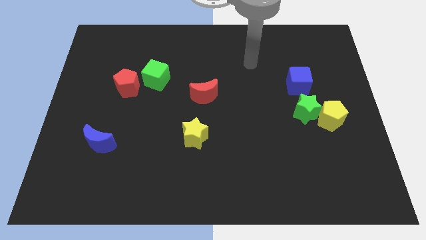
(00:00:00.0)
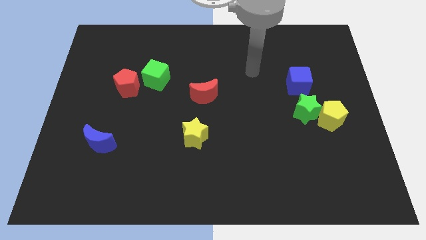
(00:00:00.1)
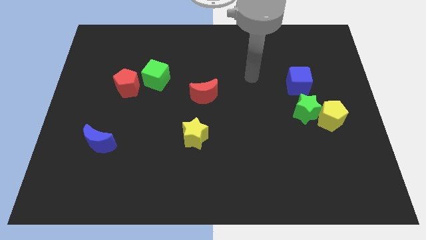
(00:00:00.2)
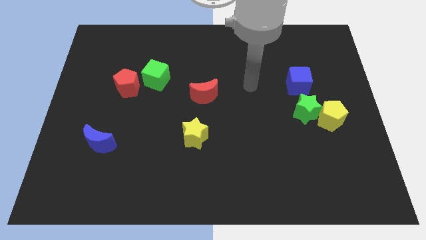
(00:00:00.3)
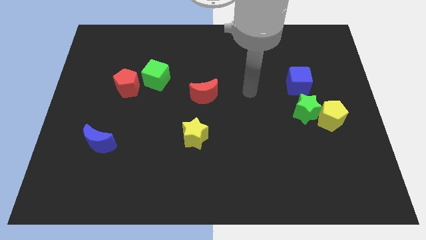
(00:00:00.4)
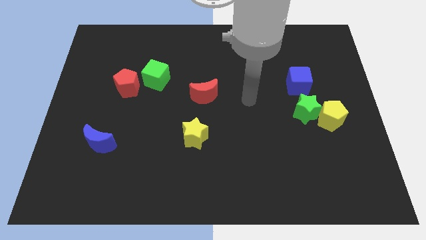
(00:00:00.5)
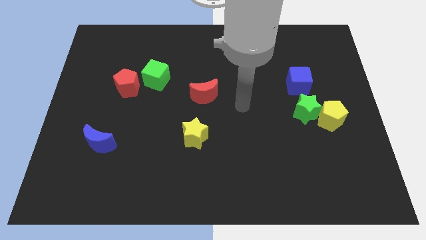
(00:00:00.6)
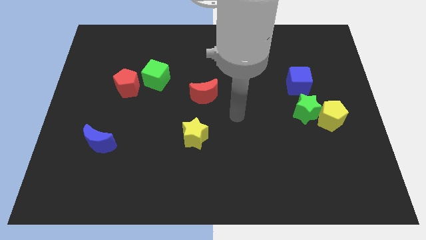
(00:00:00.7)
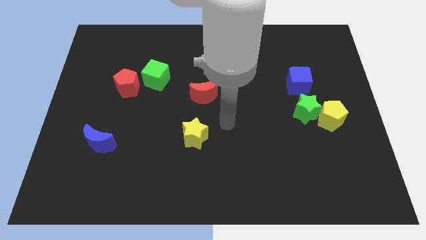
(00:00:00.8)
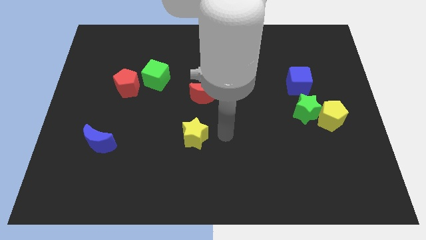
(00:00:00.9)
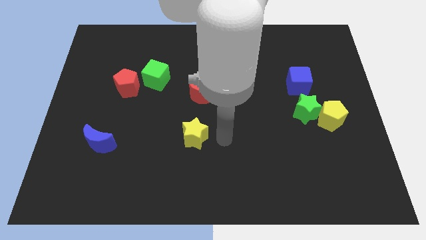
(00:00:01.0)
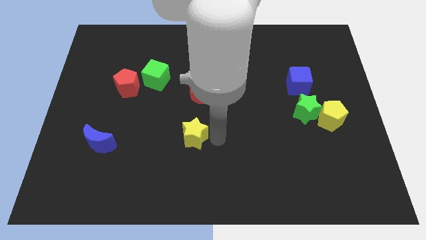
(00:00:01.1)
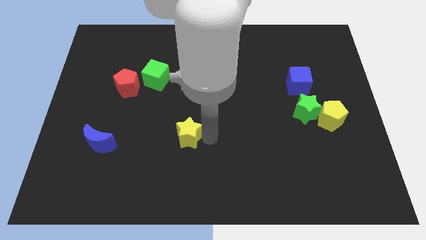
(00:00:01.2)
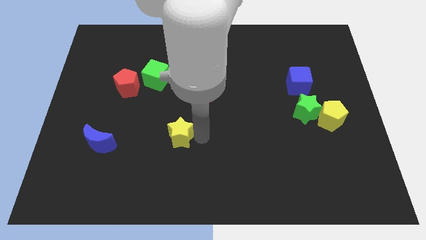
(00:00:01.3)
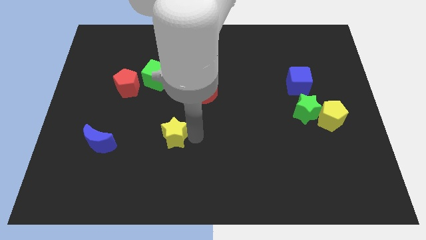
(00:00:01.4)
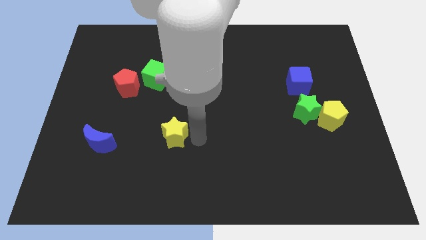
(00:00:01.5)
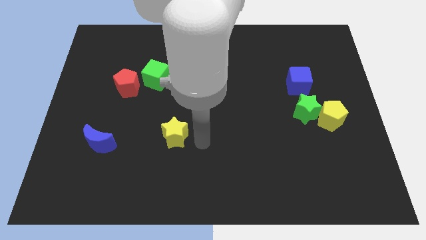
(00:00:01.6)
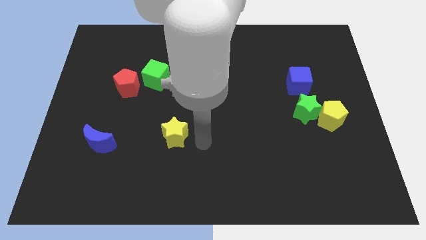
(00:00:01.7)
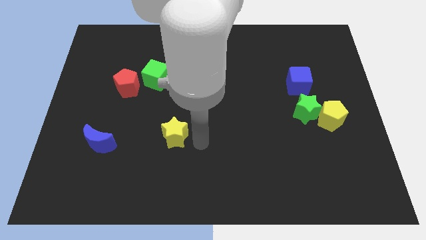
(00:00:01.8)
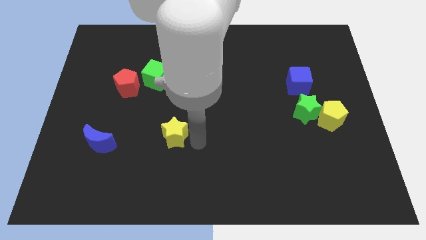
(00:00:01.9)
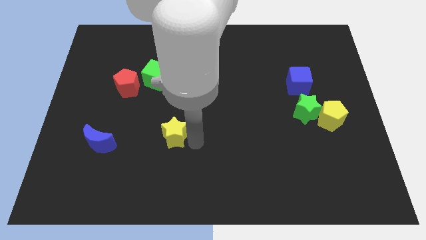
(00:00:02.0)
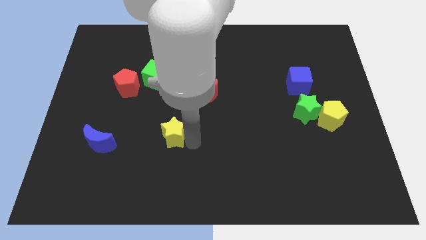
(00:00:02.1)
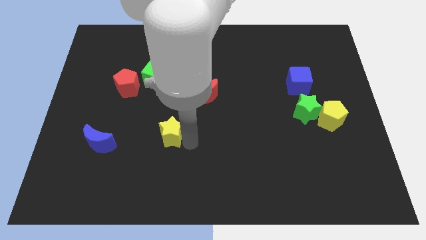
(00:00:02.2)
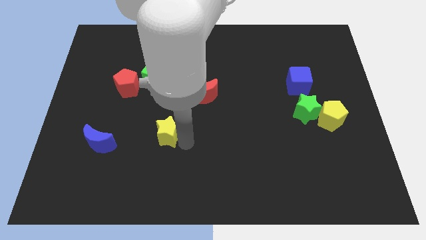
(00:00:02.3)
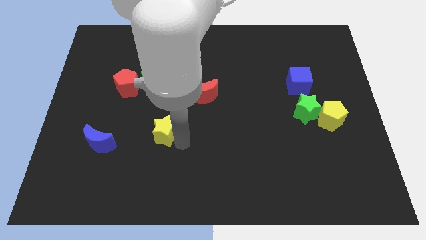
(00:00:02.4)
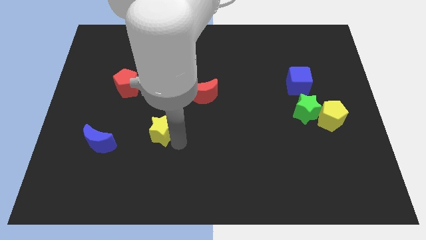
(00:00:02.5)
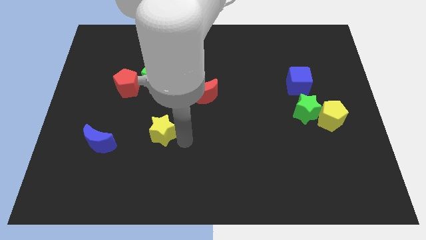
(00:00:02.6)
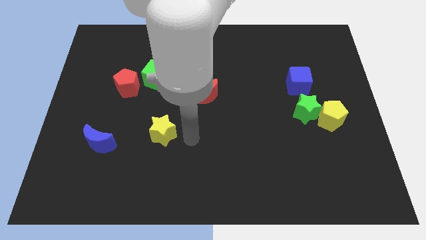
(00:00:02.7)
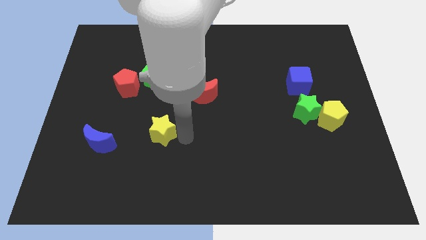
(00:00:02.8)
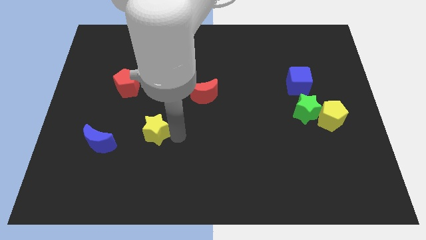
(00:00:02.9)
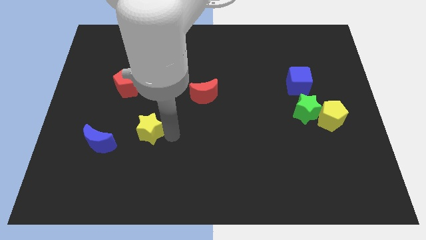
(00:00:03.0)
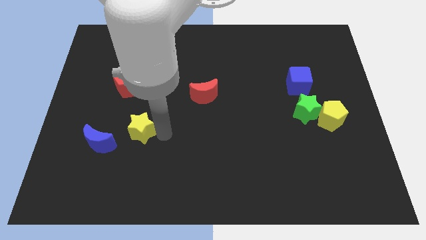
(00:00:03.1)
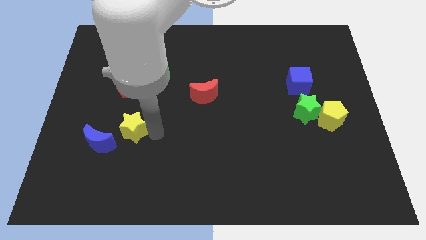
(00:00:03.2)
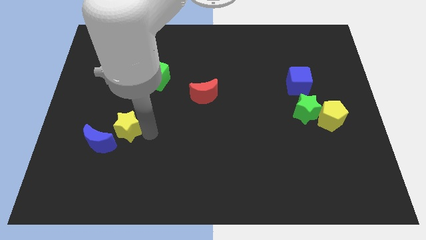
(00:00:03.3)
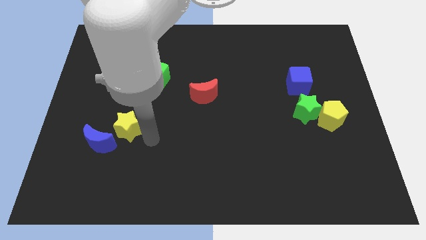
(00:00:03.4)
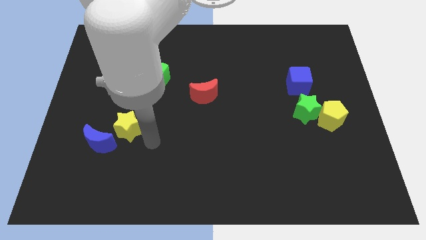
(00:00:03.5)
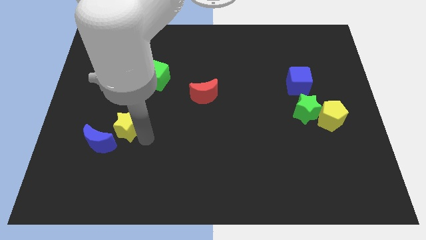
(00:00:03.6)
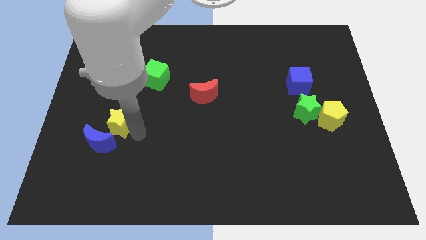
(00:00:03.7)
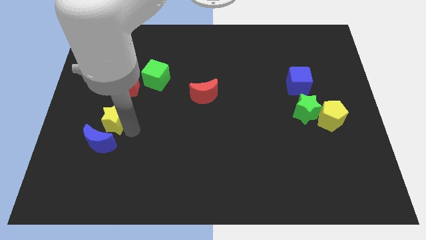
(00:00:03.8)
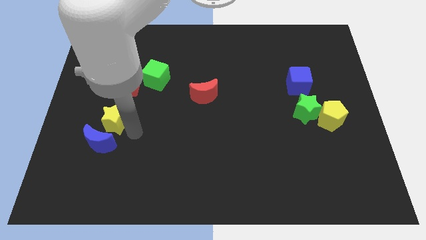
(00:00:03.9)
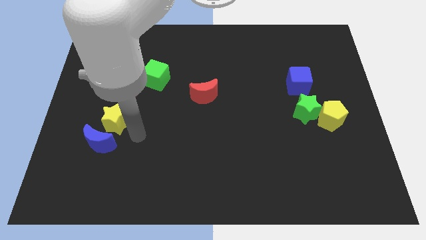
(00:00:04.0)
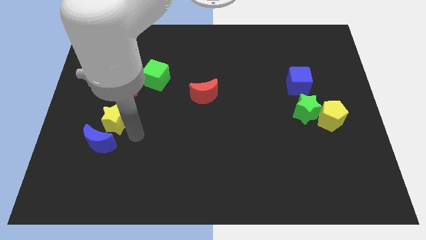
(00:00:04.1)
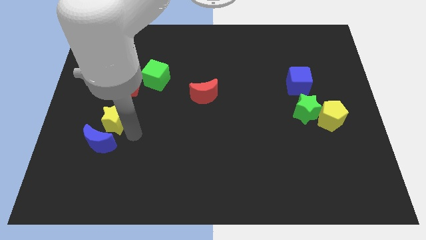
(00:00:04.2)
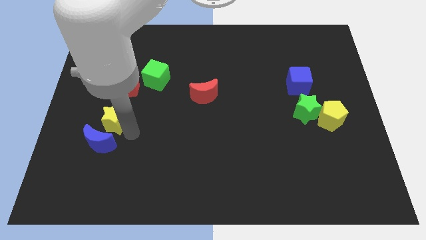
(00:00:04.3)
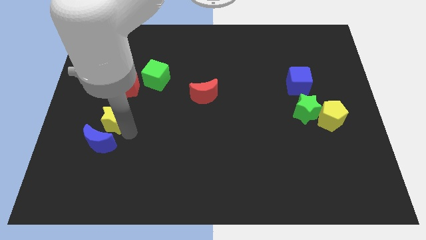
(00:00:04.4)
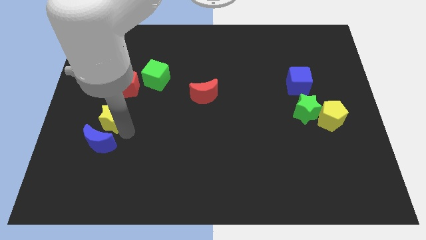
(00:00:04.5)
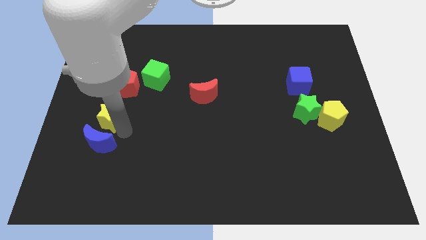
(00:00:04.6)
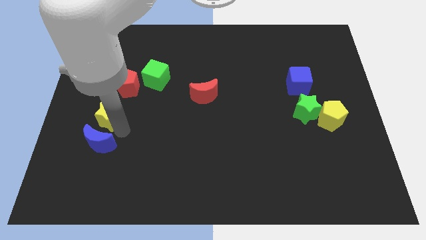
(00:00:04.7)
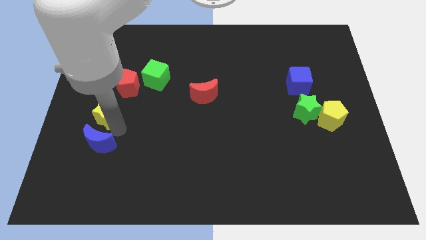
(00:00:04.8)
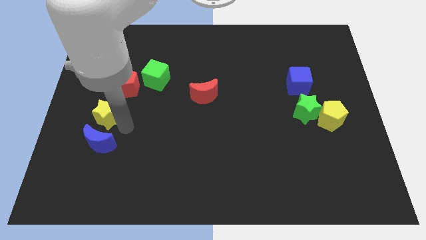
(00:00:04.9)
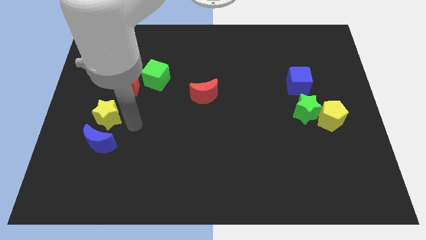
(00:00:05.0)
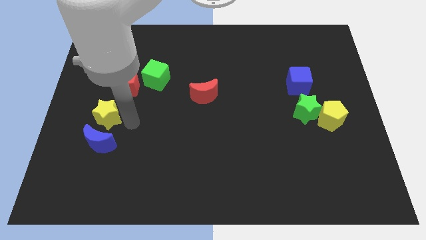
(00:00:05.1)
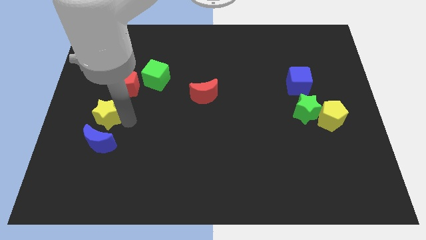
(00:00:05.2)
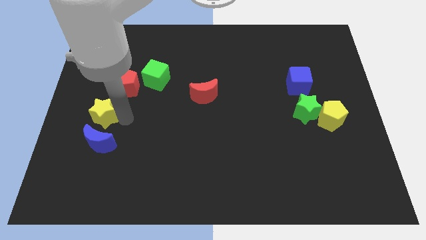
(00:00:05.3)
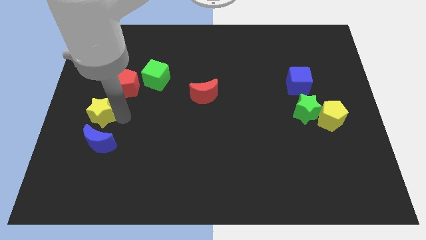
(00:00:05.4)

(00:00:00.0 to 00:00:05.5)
move the yellow star to the left side of the board
